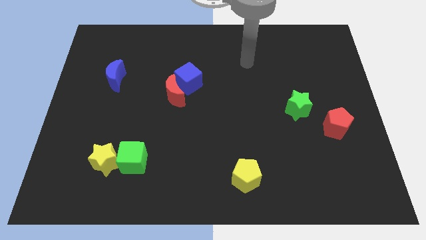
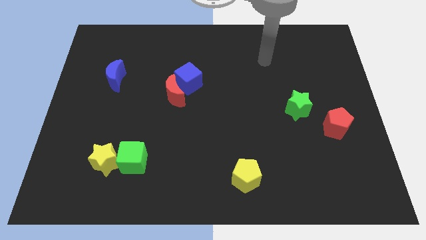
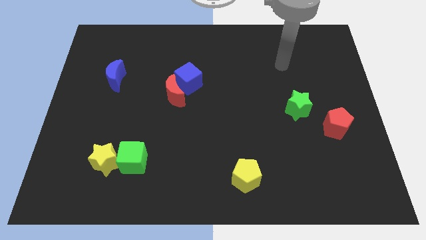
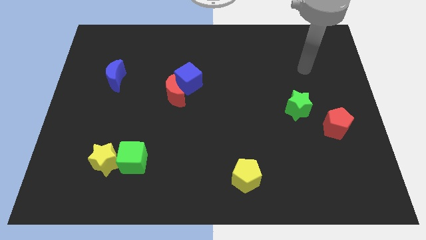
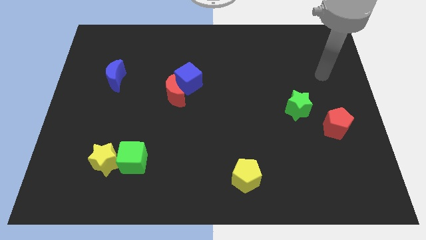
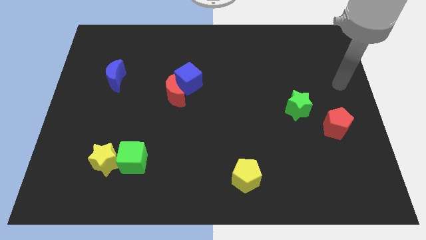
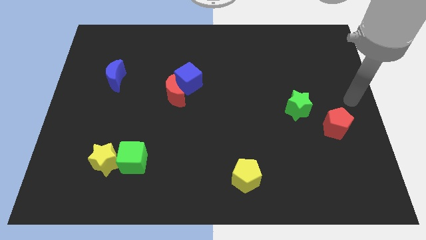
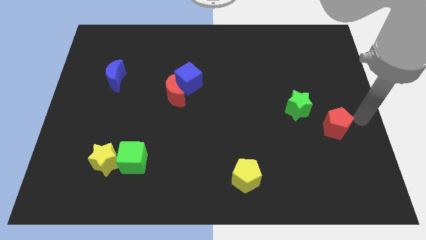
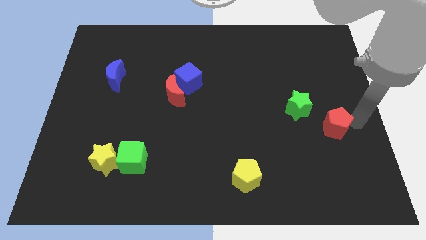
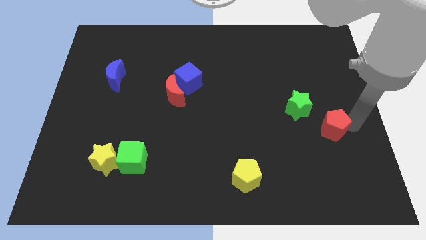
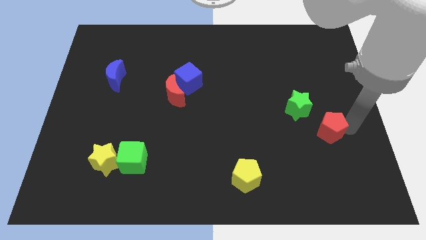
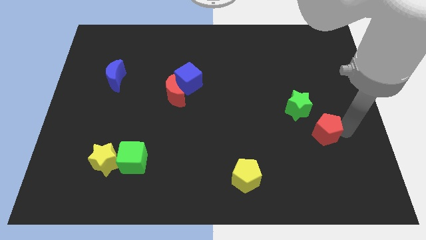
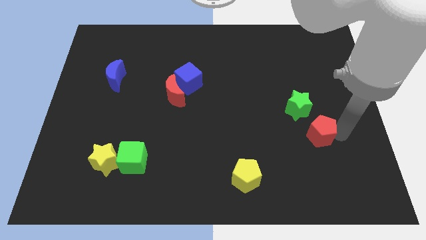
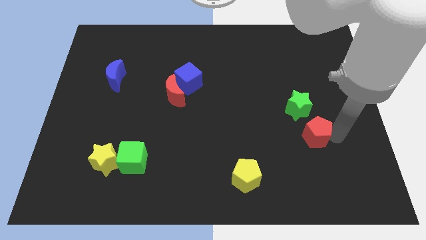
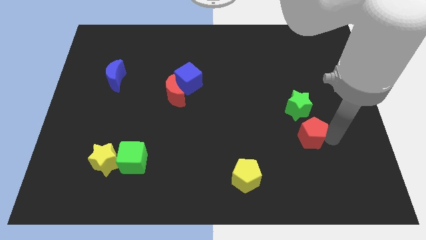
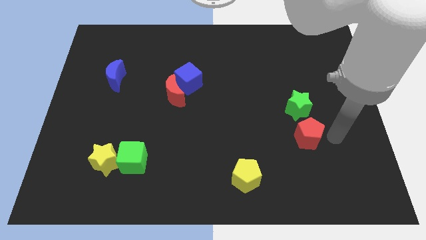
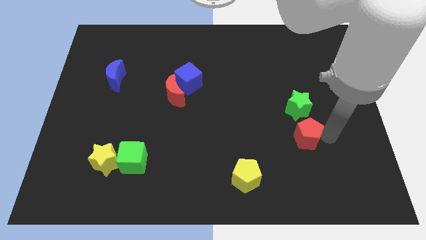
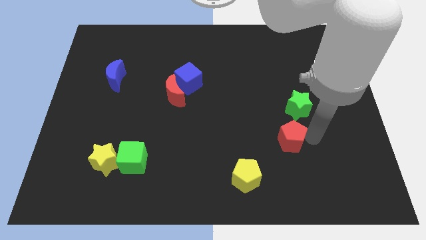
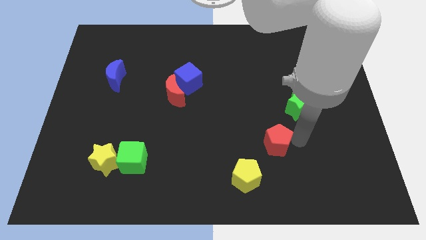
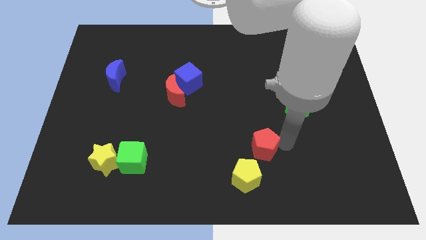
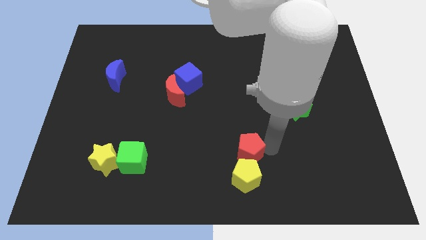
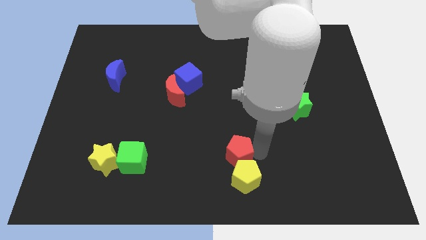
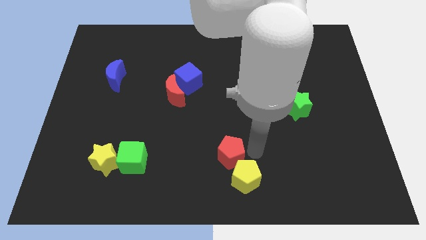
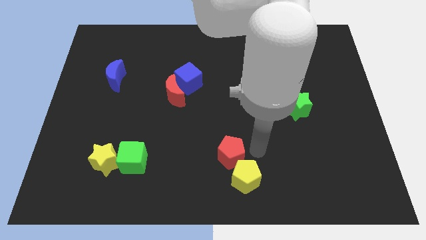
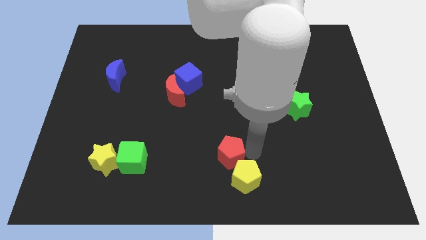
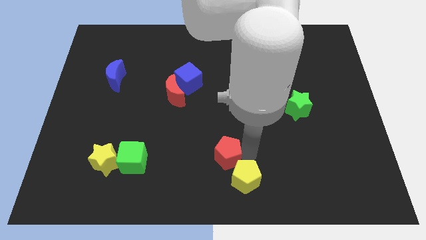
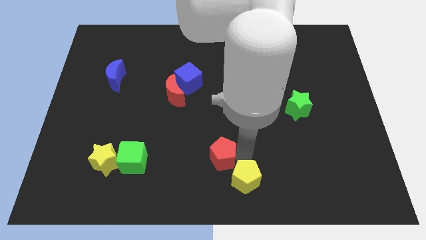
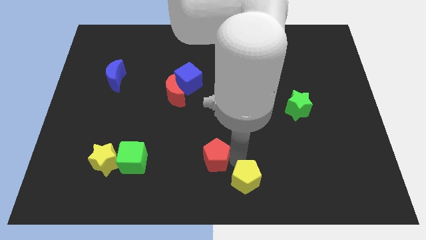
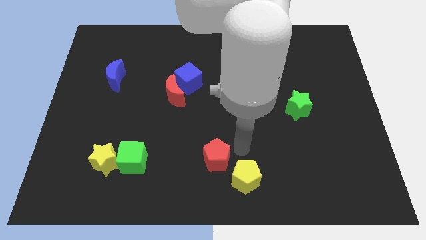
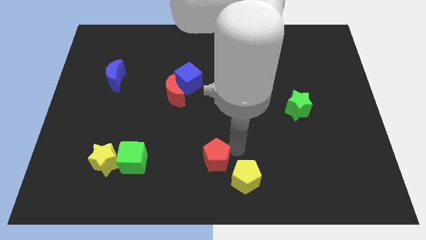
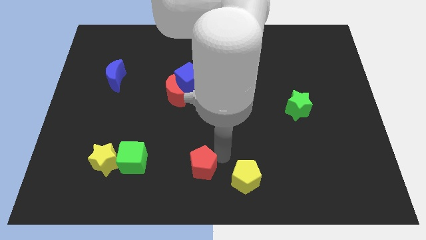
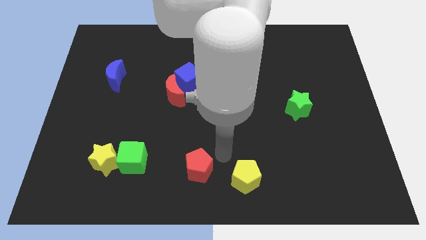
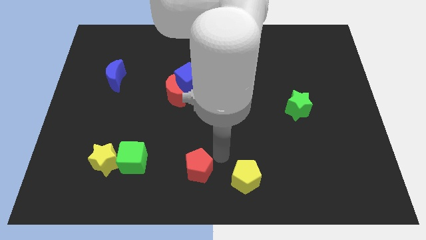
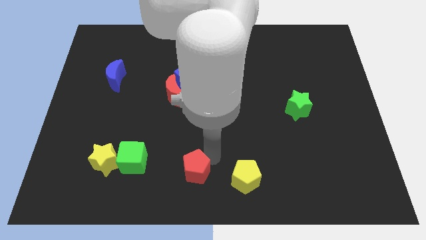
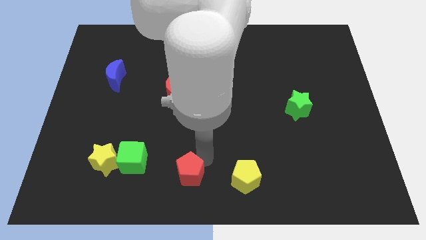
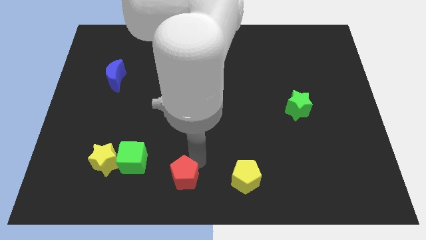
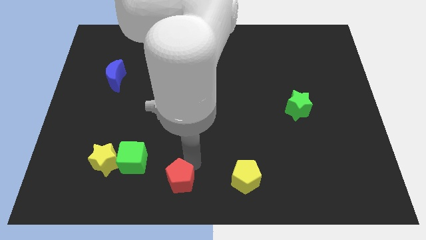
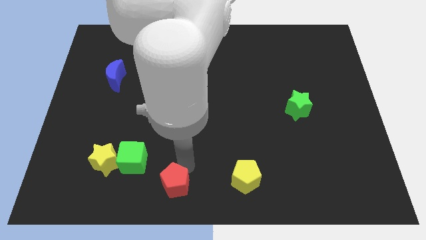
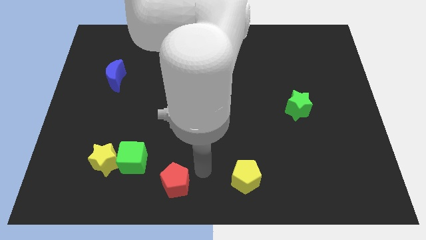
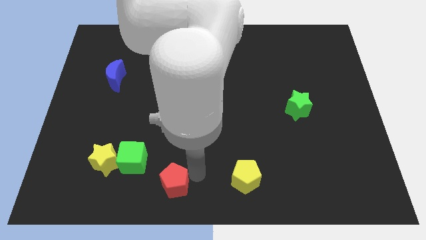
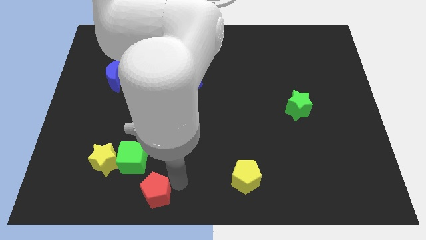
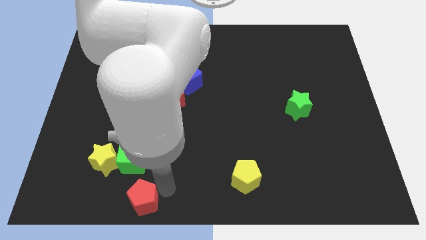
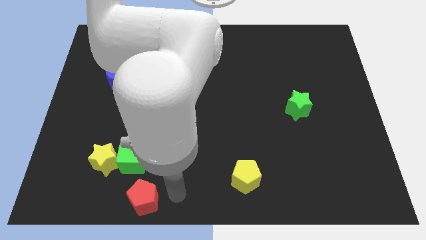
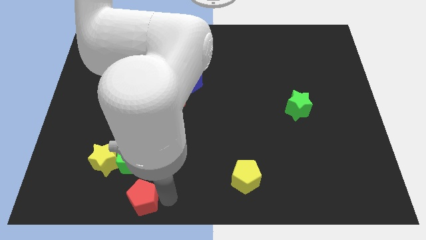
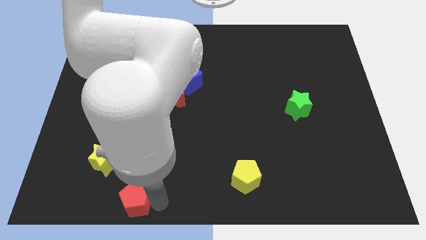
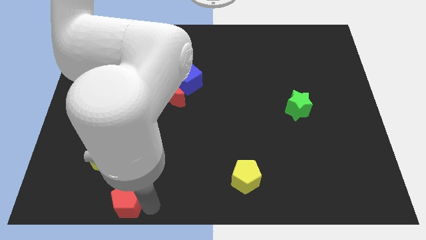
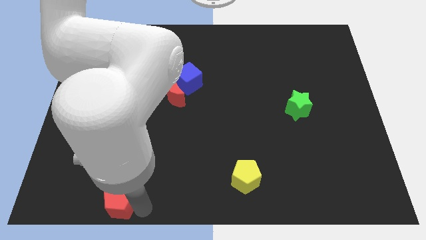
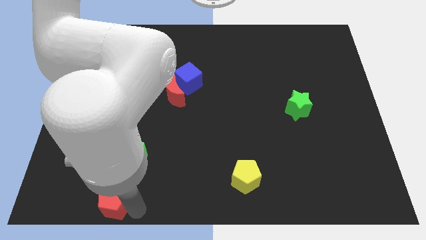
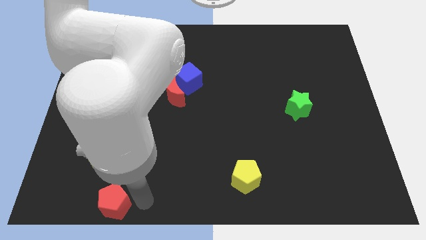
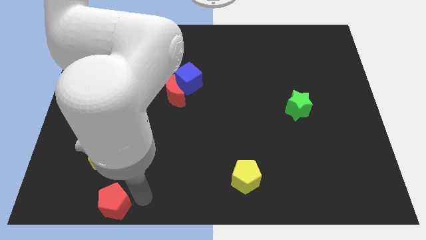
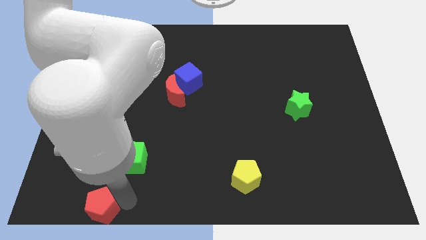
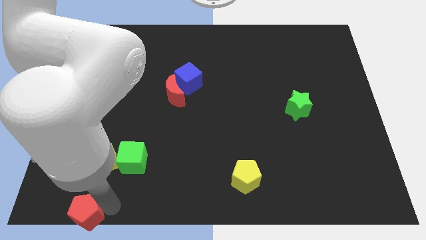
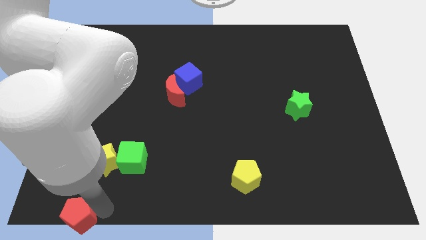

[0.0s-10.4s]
put the red pentagon to the bottom left

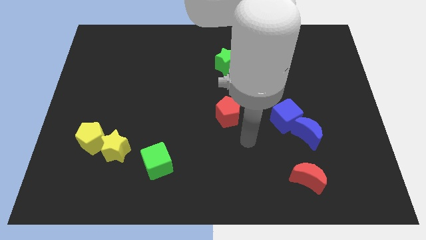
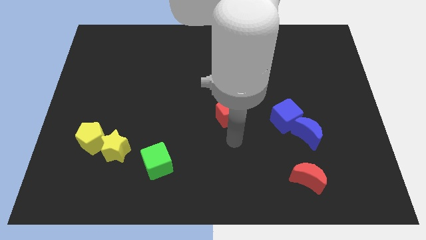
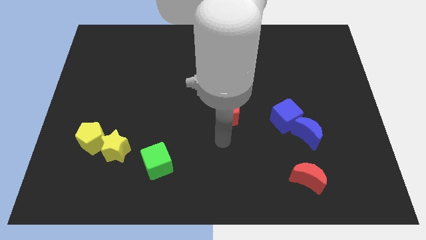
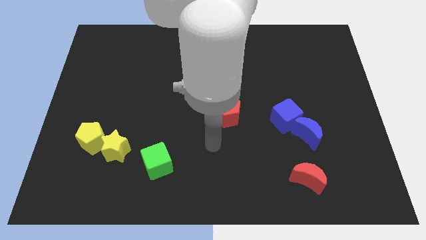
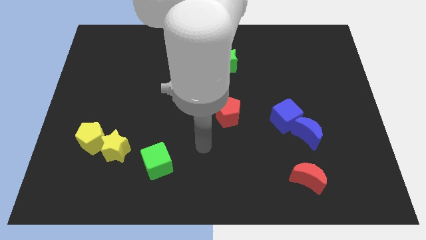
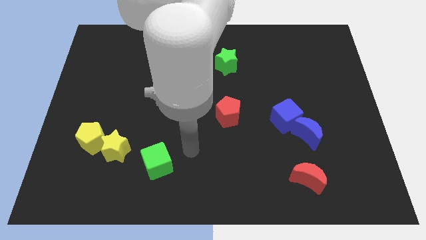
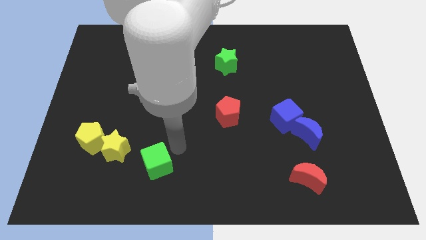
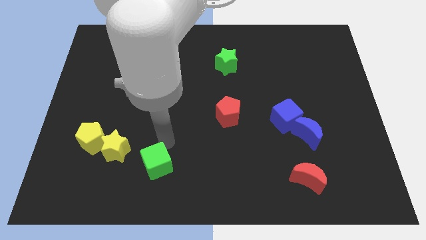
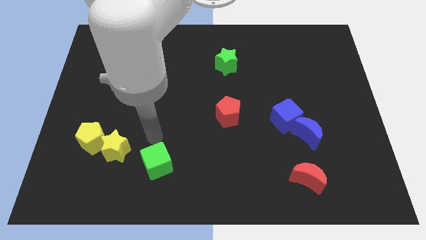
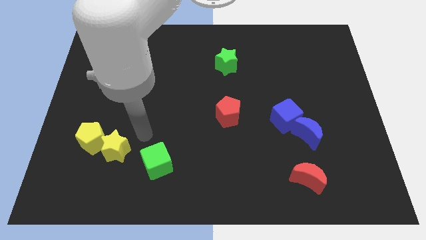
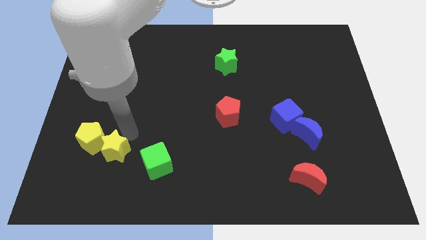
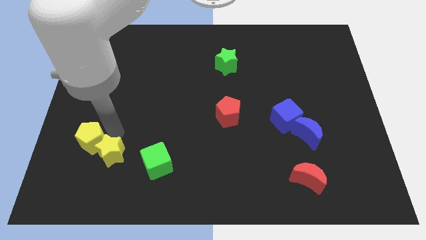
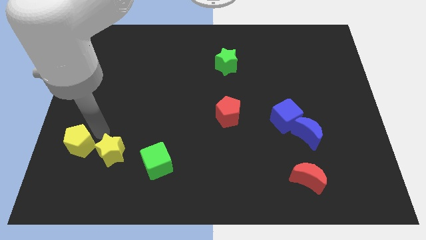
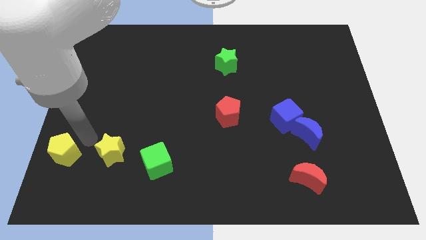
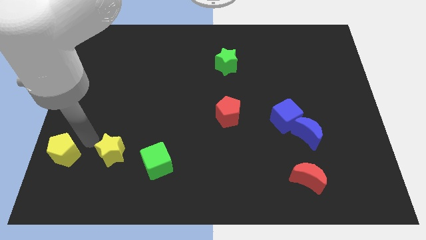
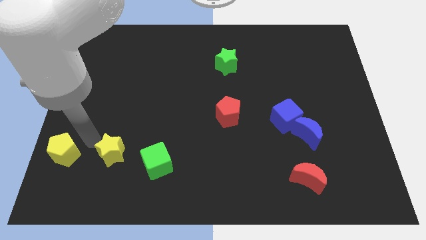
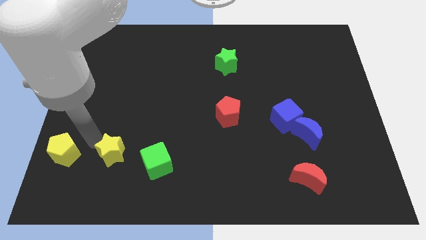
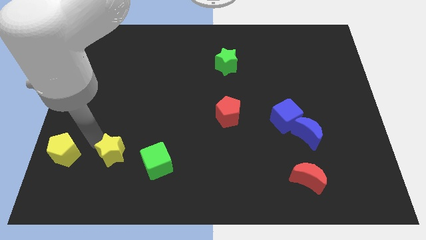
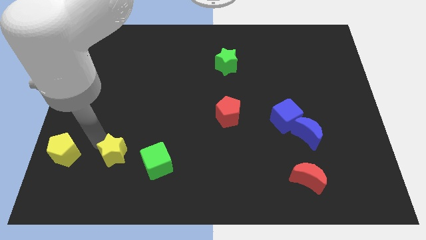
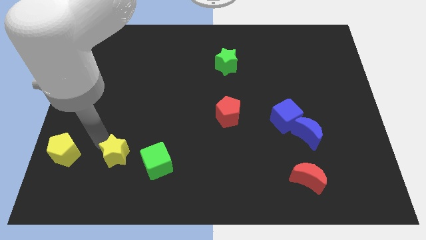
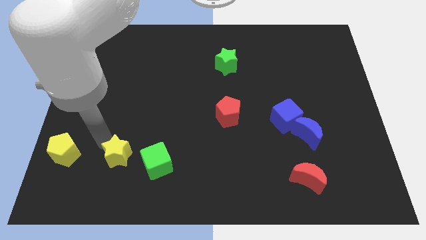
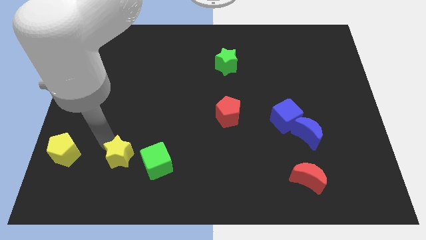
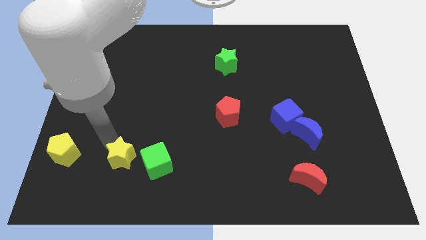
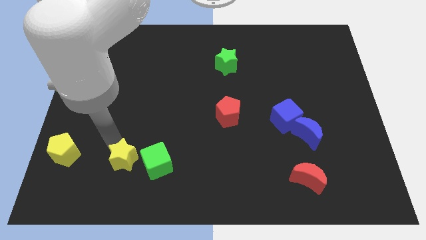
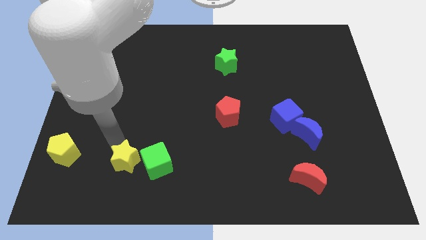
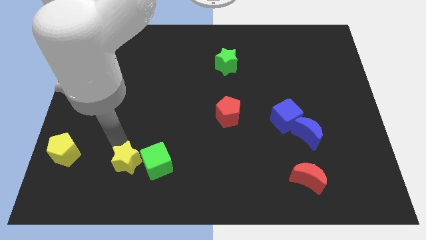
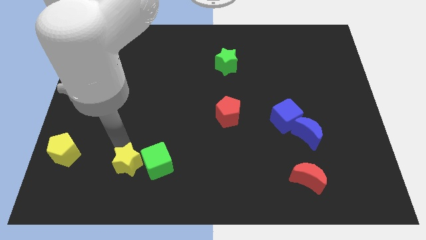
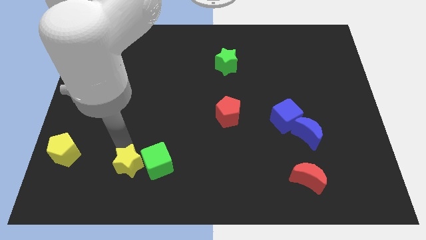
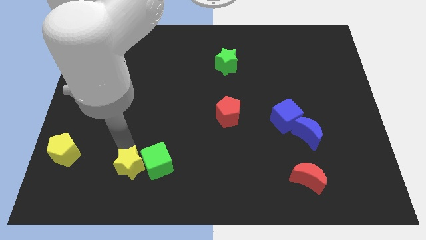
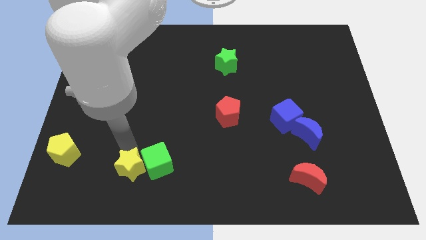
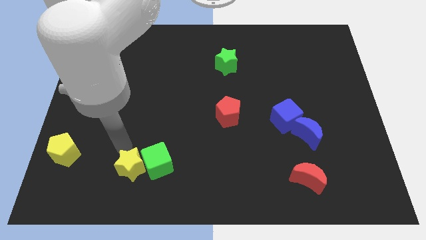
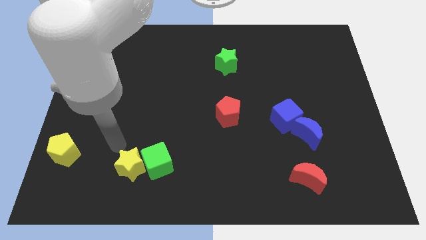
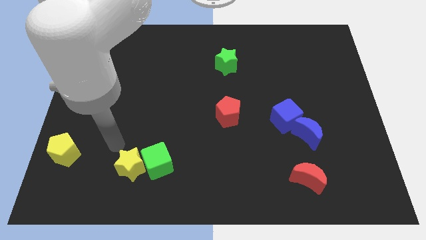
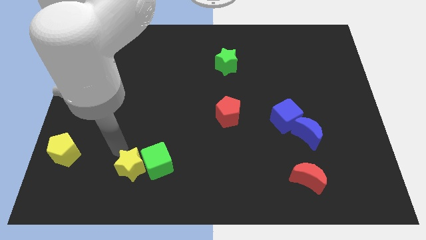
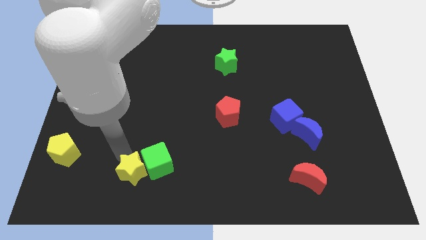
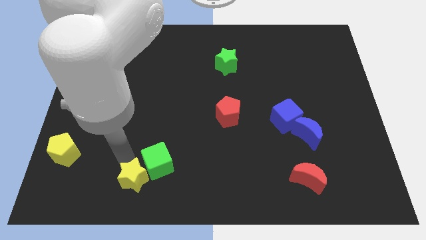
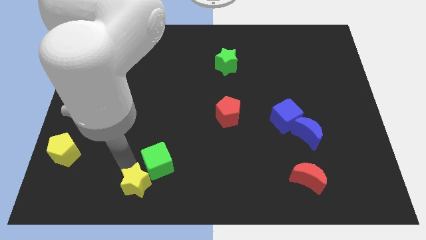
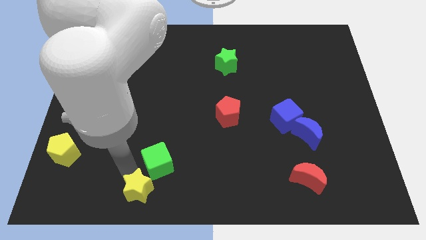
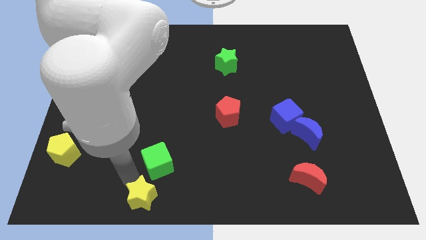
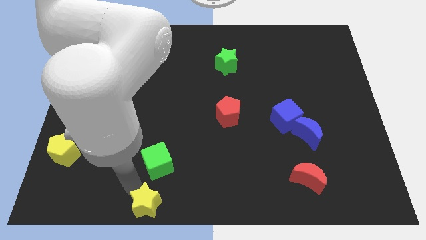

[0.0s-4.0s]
move the yellow star to the bottom
